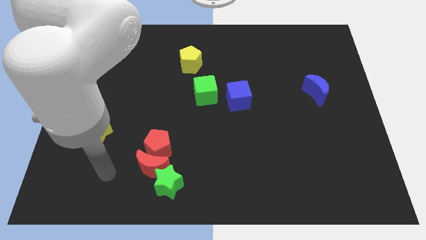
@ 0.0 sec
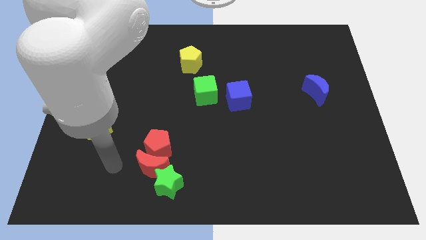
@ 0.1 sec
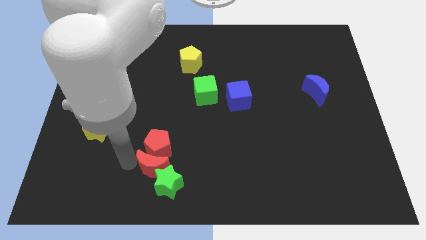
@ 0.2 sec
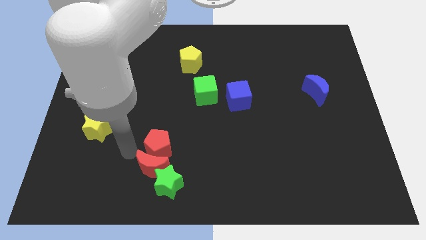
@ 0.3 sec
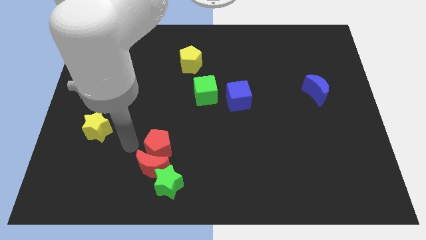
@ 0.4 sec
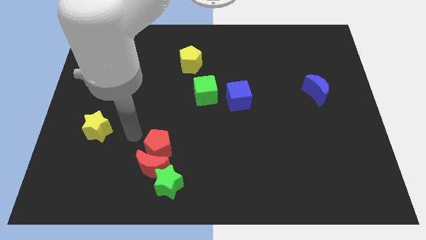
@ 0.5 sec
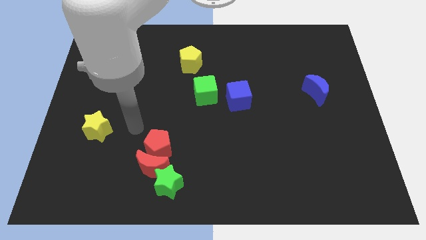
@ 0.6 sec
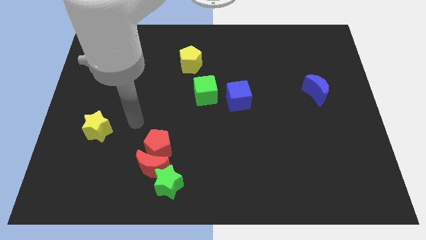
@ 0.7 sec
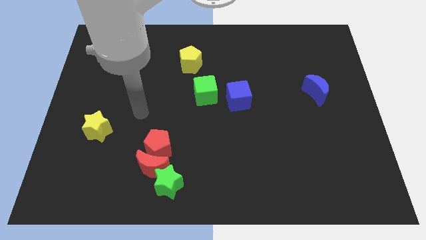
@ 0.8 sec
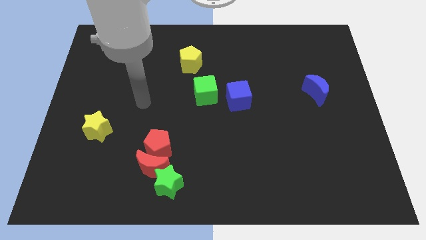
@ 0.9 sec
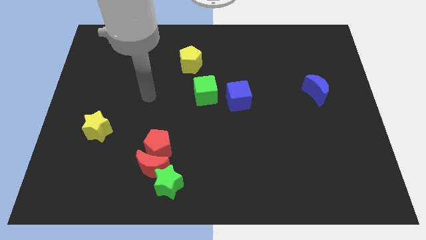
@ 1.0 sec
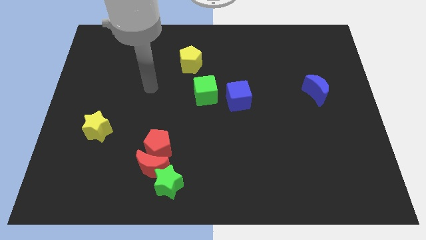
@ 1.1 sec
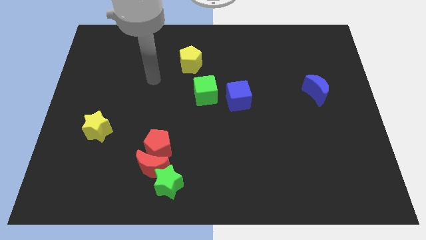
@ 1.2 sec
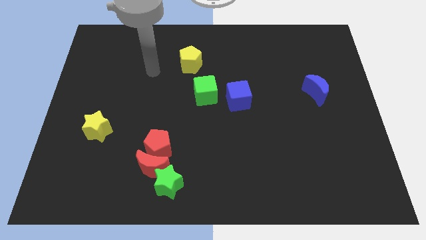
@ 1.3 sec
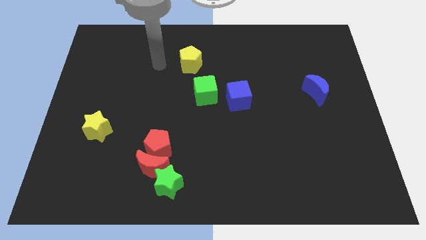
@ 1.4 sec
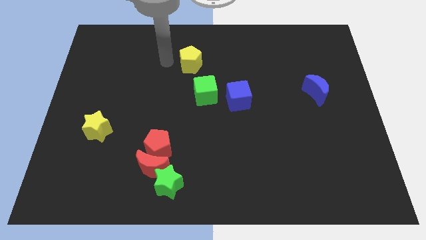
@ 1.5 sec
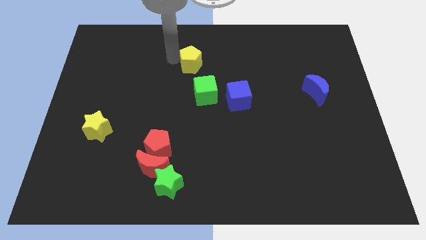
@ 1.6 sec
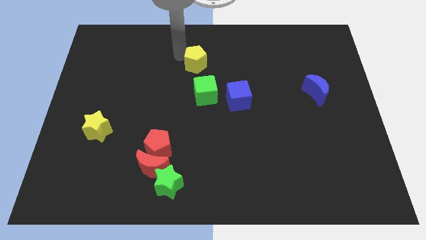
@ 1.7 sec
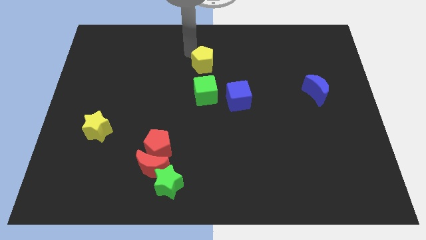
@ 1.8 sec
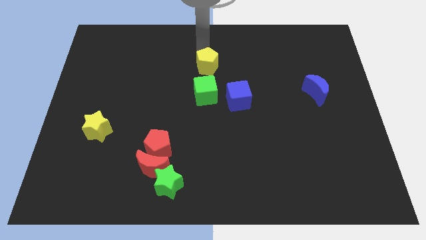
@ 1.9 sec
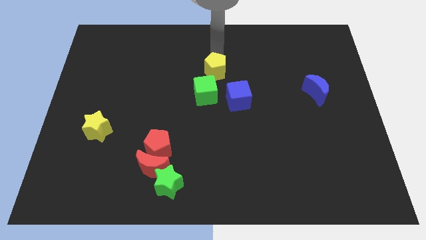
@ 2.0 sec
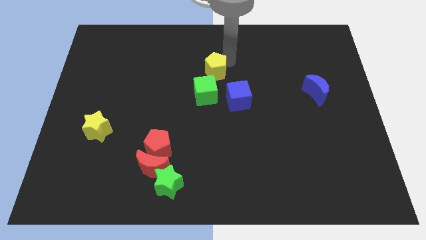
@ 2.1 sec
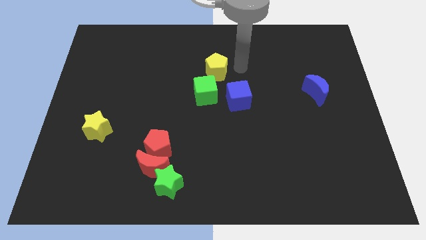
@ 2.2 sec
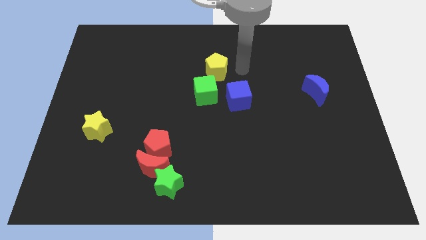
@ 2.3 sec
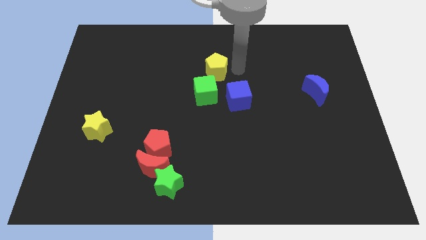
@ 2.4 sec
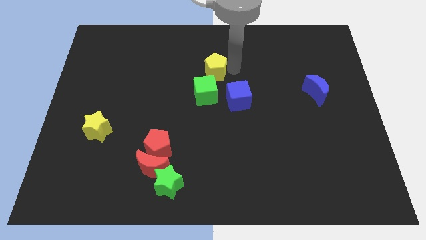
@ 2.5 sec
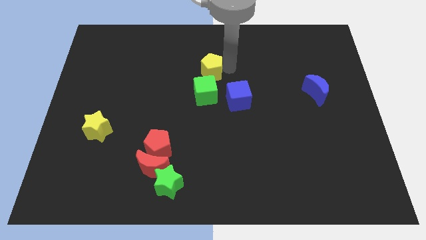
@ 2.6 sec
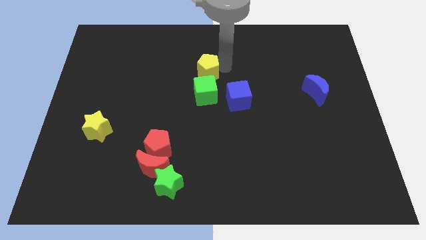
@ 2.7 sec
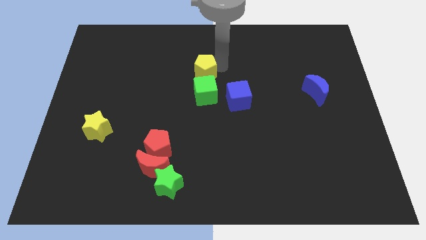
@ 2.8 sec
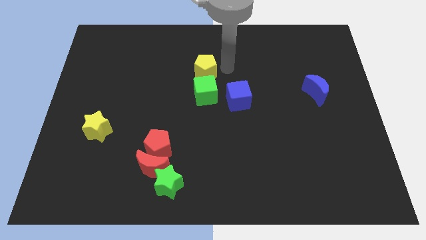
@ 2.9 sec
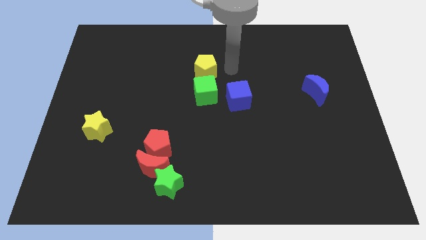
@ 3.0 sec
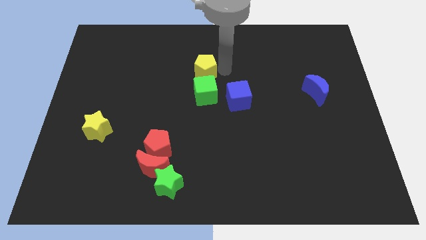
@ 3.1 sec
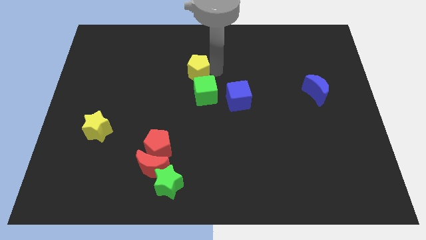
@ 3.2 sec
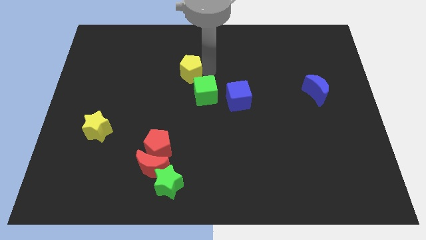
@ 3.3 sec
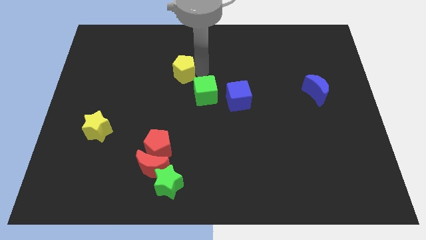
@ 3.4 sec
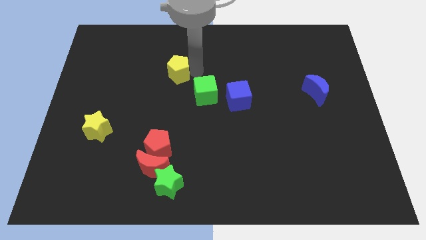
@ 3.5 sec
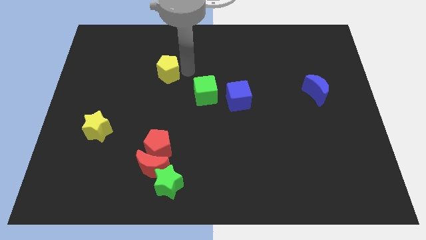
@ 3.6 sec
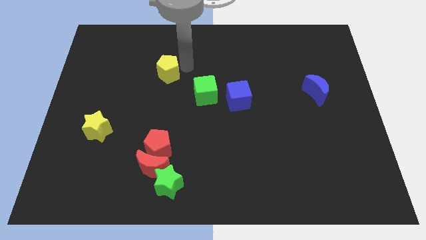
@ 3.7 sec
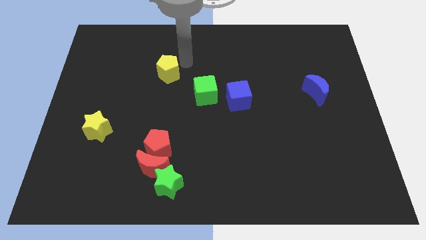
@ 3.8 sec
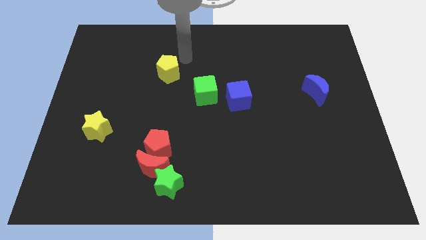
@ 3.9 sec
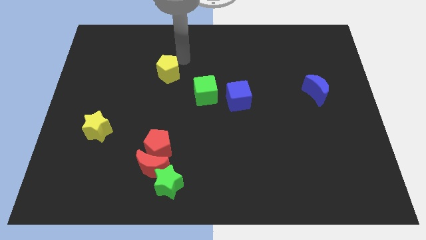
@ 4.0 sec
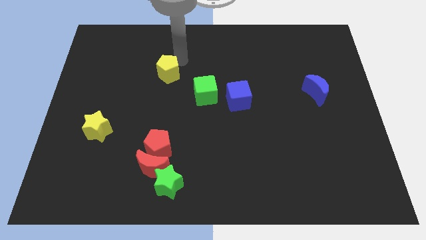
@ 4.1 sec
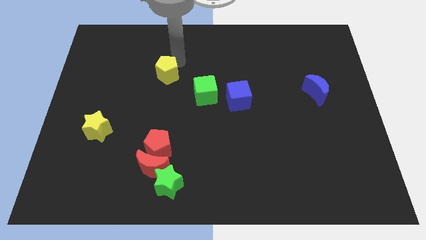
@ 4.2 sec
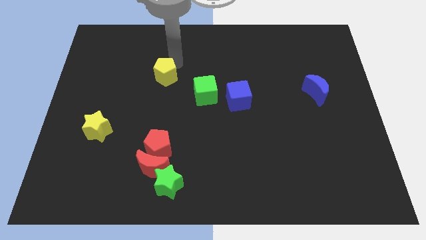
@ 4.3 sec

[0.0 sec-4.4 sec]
slightly push the yellow pentagon downwards and then left

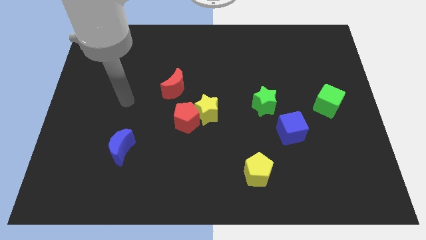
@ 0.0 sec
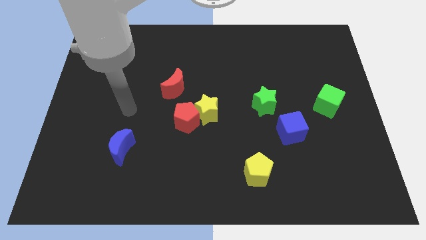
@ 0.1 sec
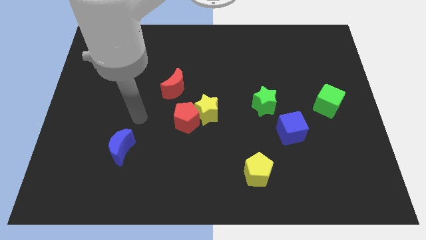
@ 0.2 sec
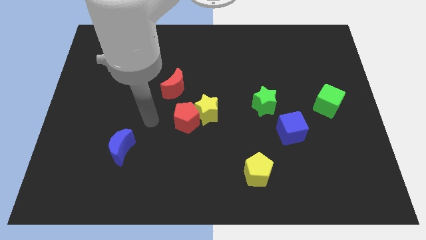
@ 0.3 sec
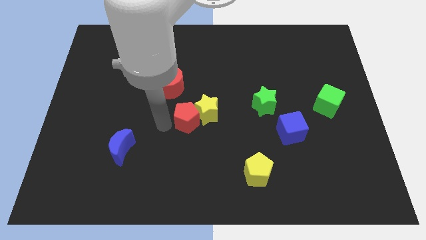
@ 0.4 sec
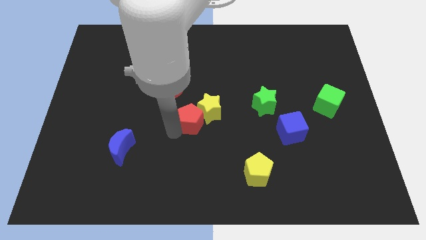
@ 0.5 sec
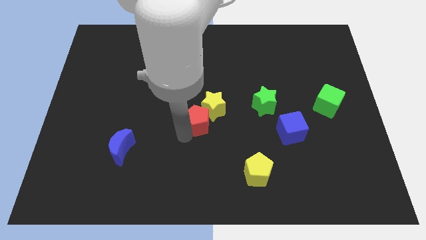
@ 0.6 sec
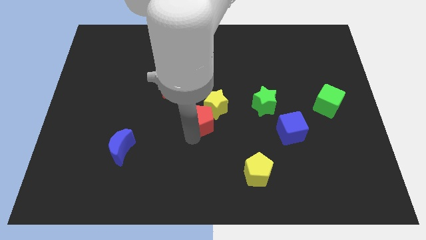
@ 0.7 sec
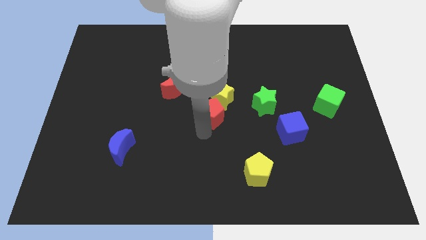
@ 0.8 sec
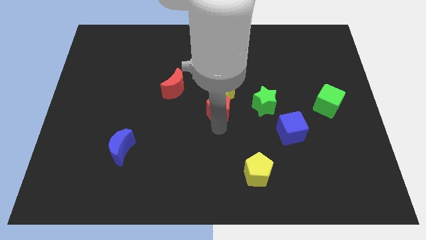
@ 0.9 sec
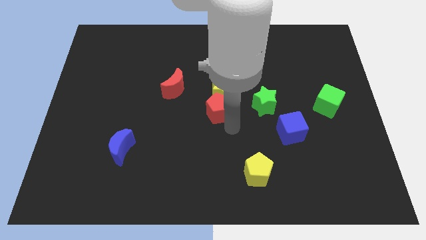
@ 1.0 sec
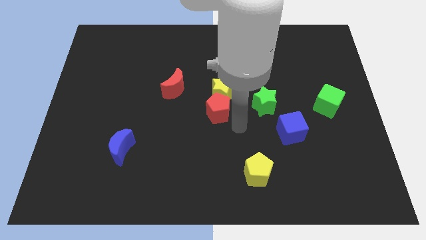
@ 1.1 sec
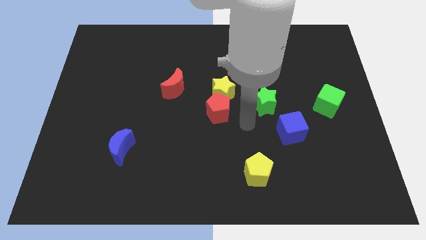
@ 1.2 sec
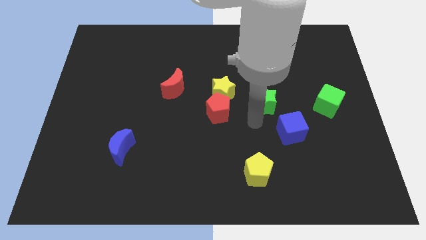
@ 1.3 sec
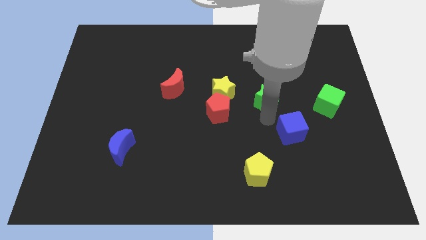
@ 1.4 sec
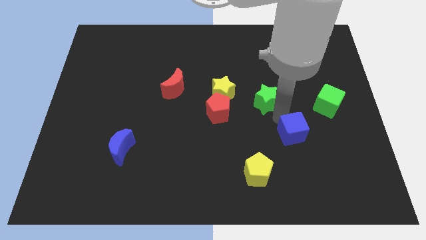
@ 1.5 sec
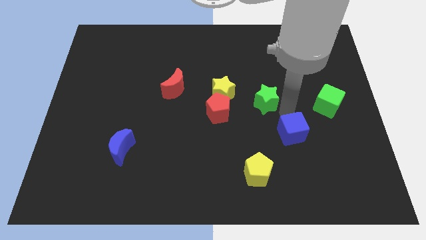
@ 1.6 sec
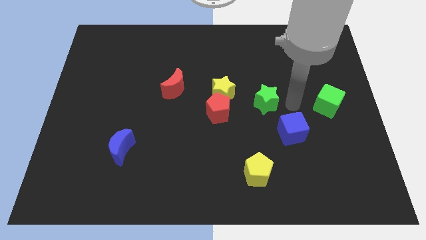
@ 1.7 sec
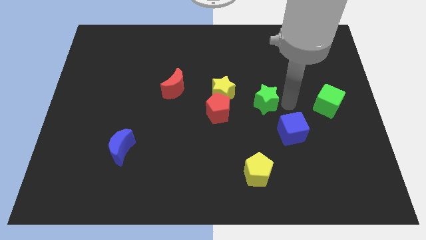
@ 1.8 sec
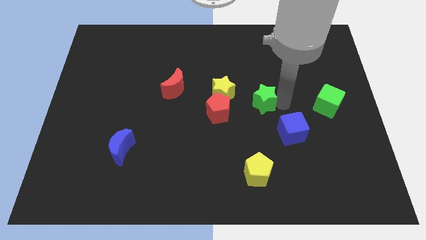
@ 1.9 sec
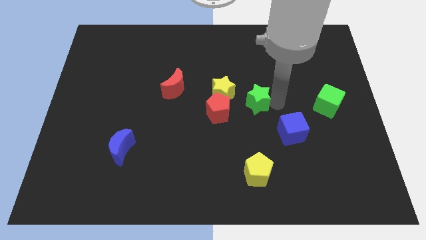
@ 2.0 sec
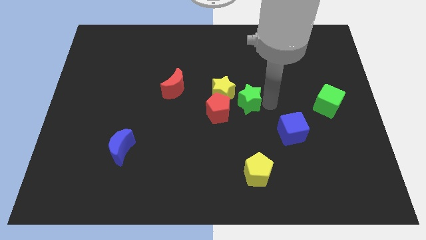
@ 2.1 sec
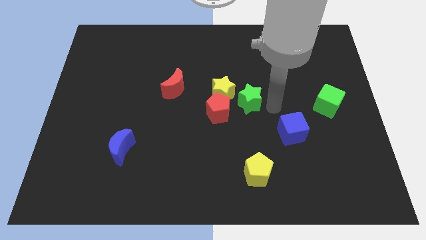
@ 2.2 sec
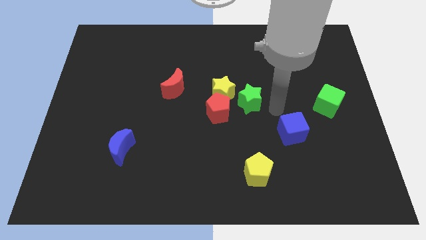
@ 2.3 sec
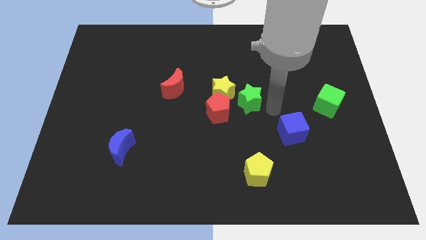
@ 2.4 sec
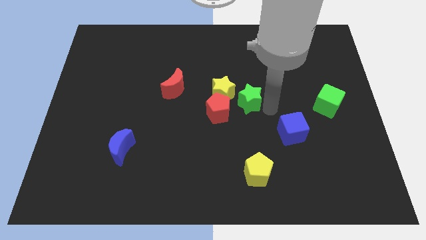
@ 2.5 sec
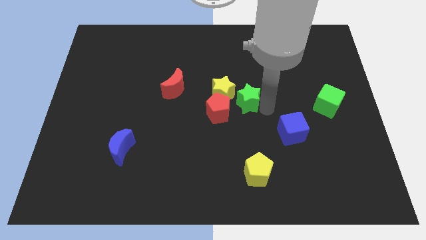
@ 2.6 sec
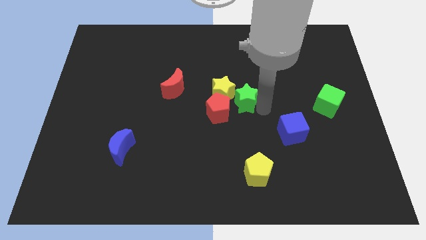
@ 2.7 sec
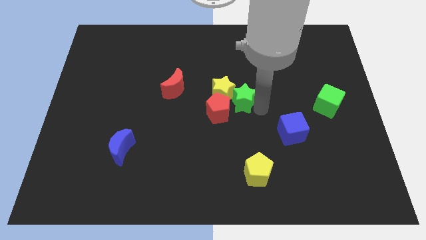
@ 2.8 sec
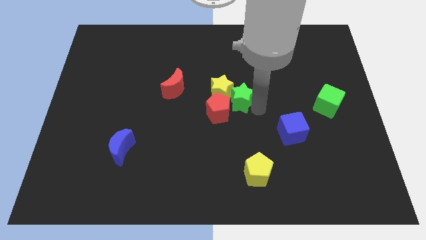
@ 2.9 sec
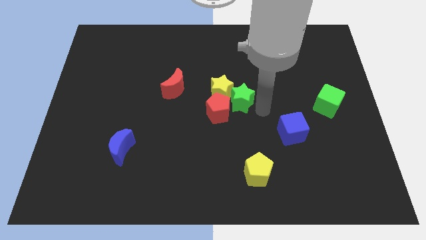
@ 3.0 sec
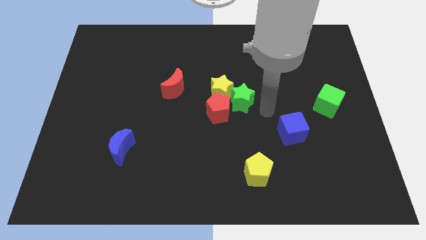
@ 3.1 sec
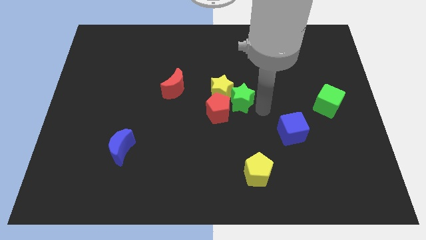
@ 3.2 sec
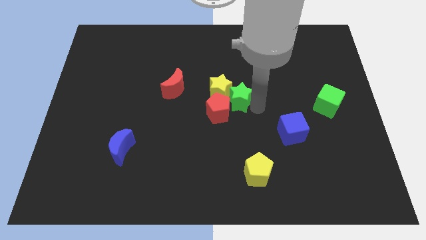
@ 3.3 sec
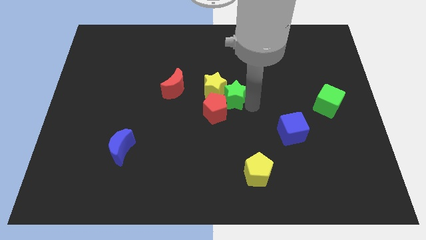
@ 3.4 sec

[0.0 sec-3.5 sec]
push the green star a little bit left
